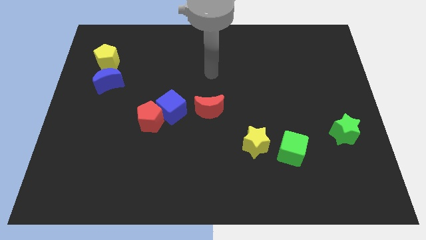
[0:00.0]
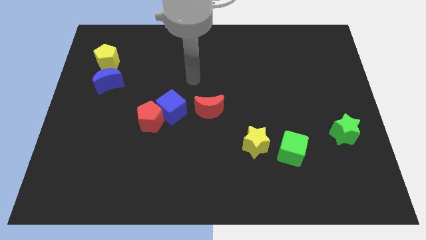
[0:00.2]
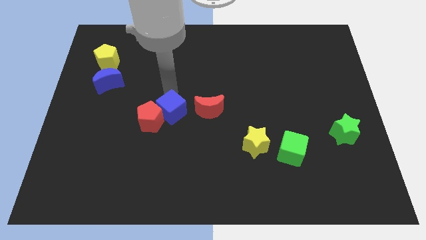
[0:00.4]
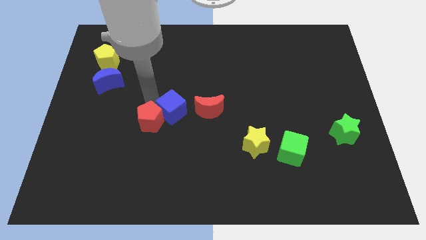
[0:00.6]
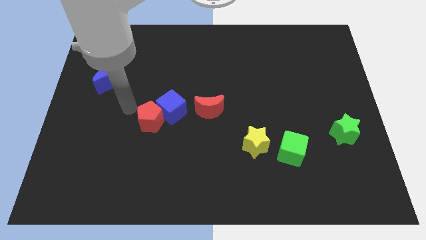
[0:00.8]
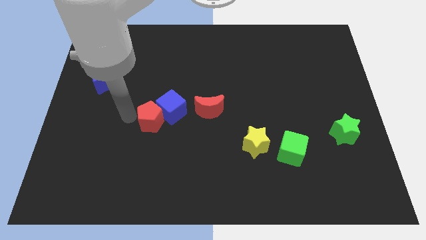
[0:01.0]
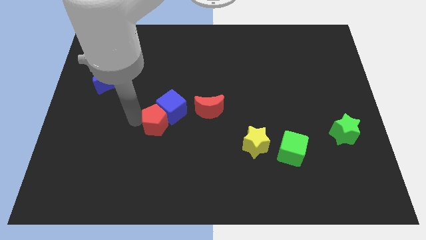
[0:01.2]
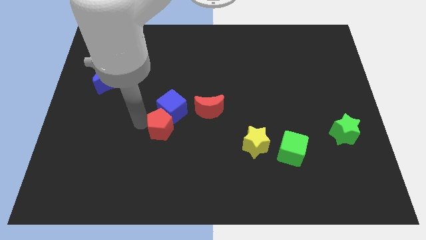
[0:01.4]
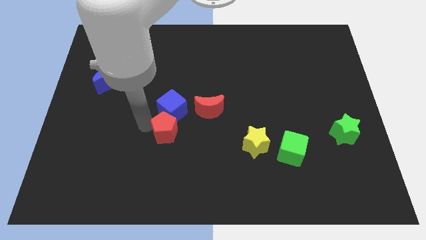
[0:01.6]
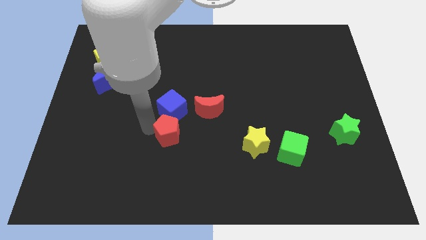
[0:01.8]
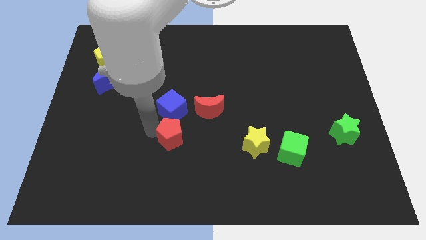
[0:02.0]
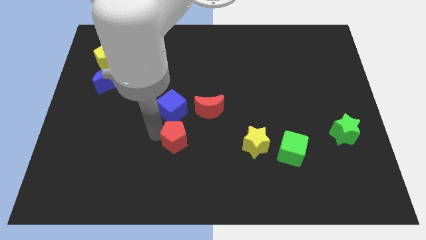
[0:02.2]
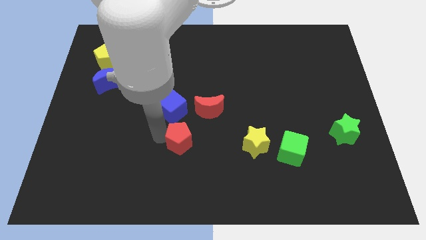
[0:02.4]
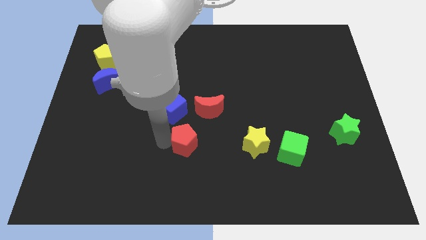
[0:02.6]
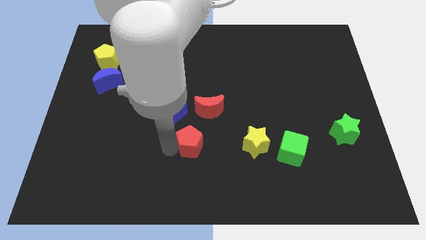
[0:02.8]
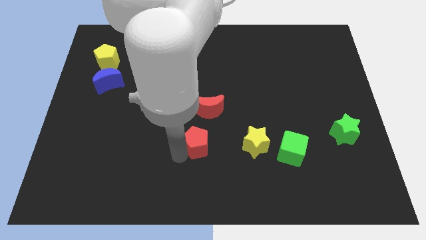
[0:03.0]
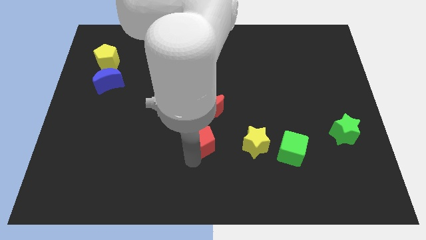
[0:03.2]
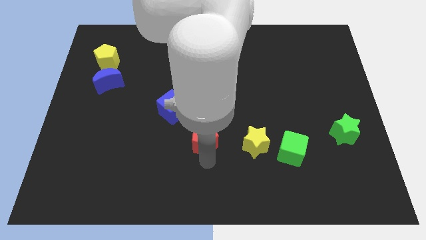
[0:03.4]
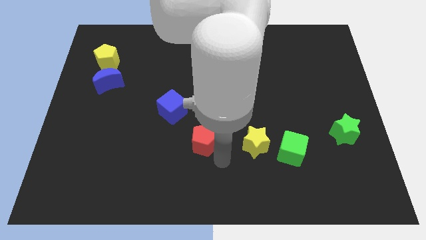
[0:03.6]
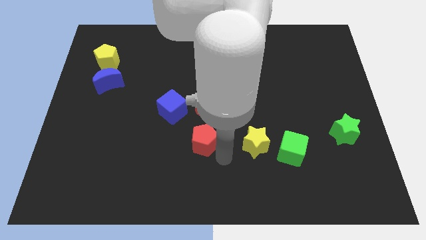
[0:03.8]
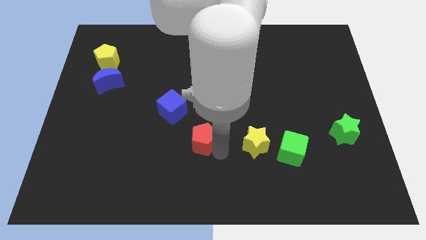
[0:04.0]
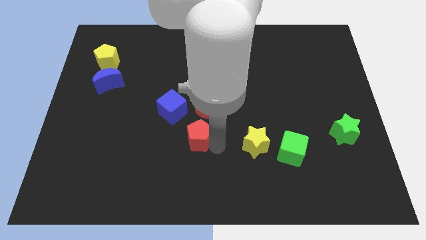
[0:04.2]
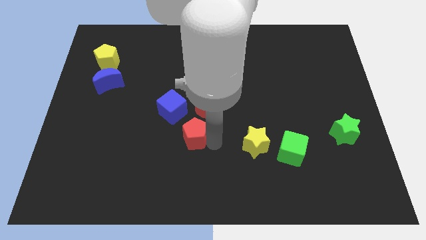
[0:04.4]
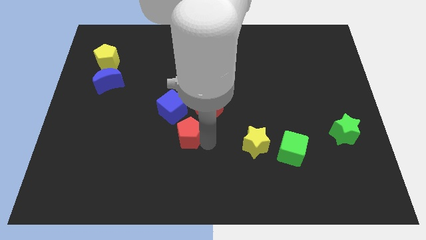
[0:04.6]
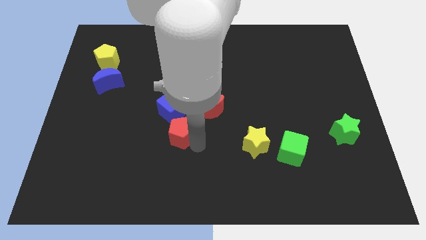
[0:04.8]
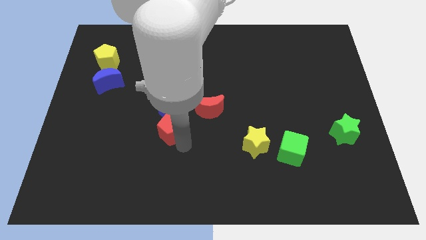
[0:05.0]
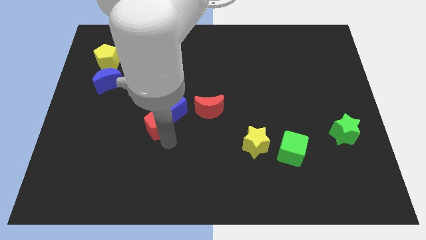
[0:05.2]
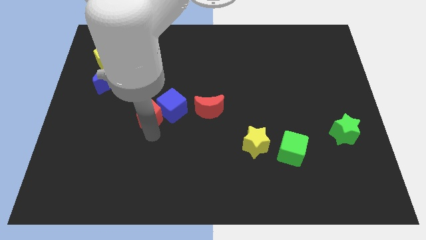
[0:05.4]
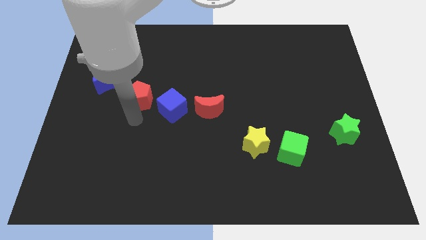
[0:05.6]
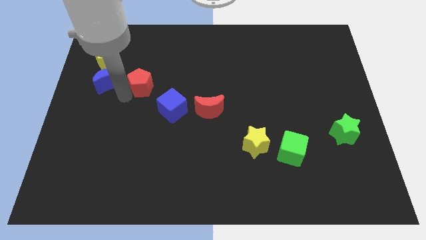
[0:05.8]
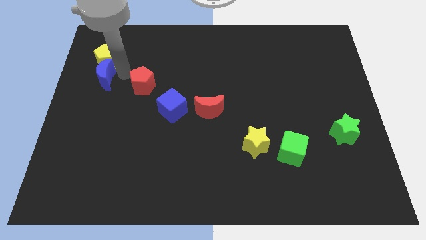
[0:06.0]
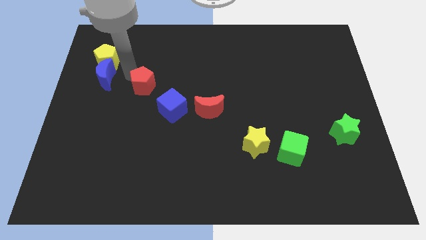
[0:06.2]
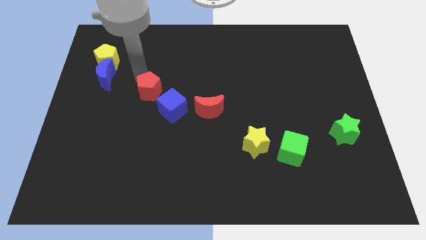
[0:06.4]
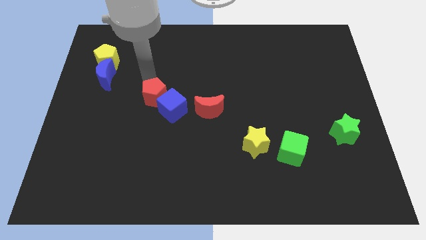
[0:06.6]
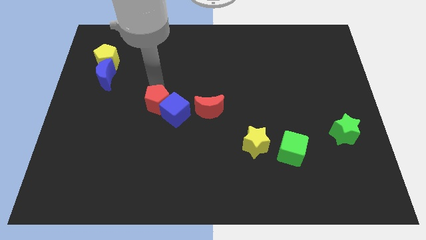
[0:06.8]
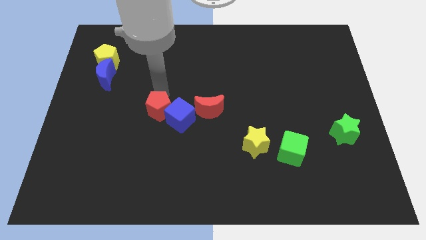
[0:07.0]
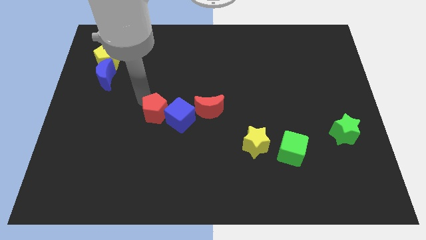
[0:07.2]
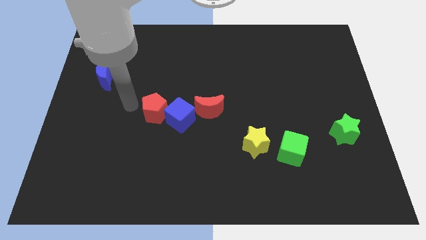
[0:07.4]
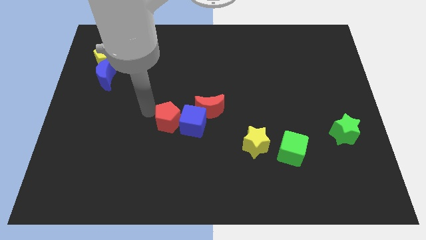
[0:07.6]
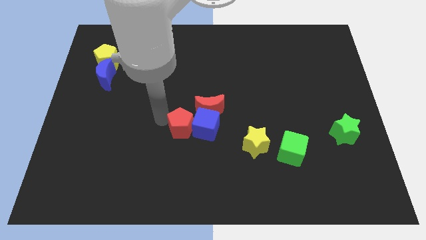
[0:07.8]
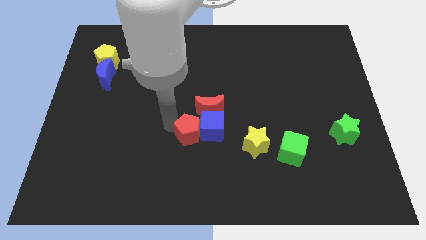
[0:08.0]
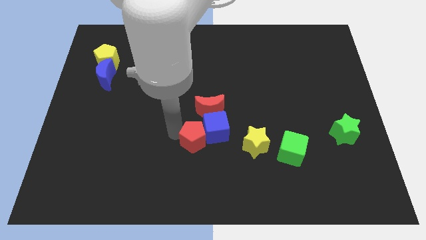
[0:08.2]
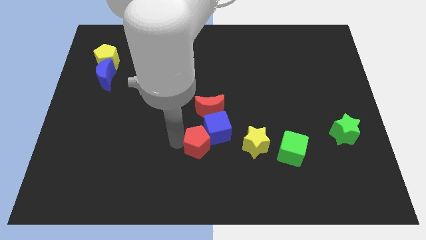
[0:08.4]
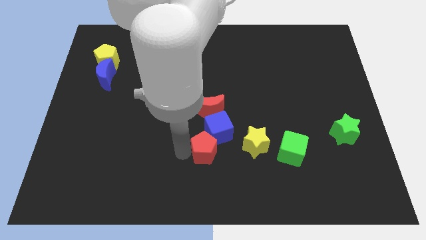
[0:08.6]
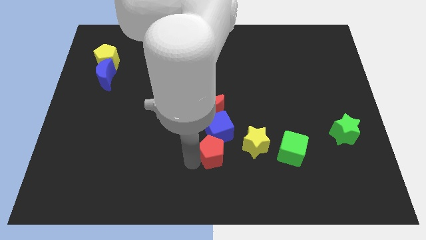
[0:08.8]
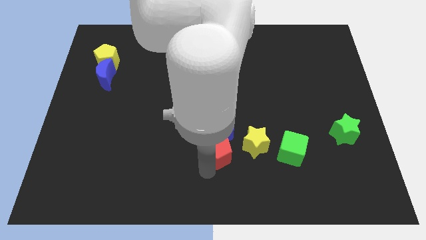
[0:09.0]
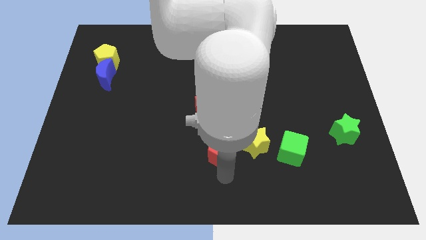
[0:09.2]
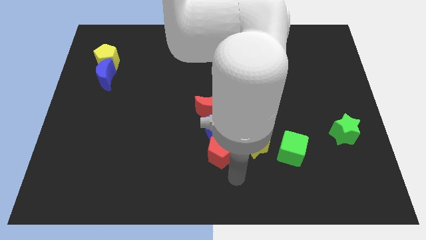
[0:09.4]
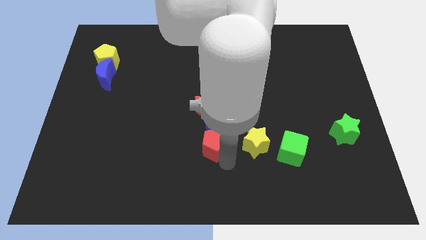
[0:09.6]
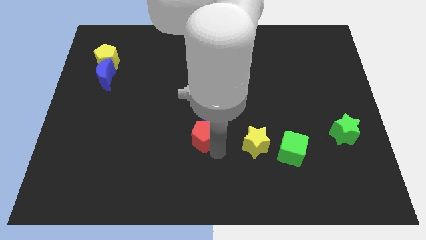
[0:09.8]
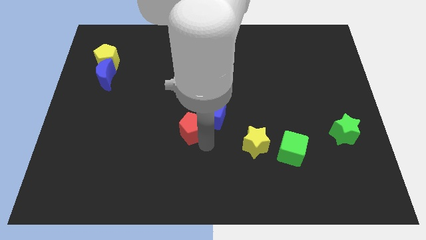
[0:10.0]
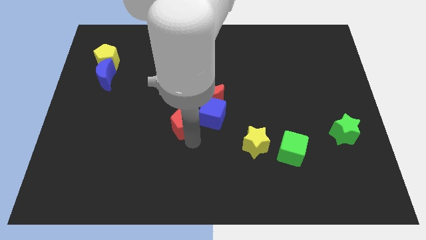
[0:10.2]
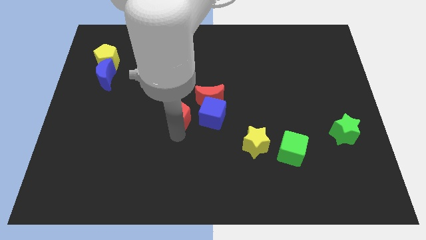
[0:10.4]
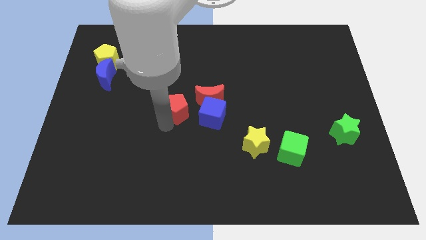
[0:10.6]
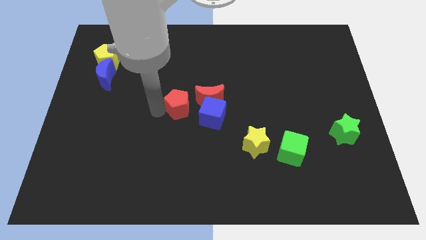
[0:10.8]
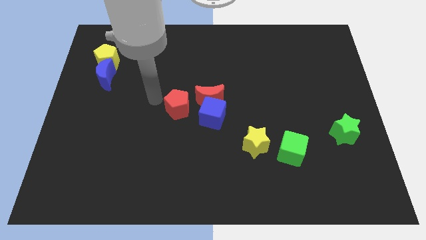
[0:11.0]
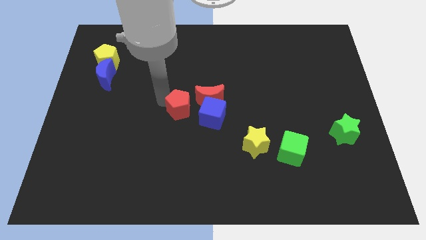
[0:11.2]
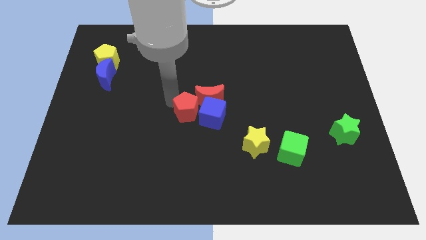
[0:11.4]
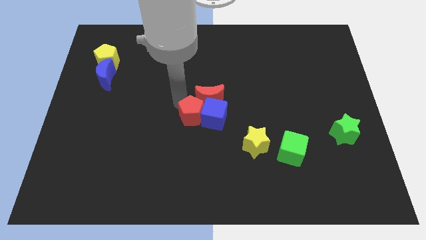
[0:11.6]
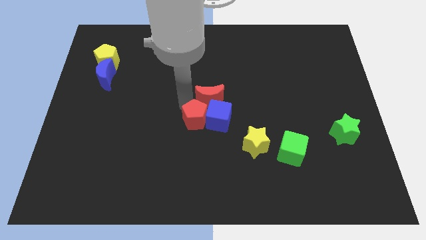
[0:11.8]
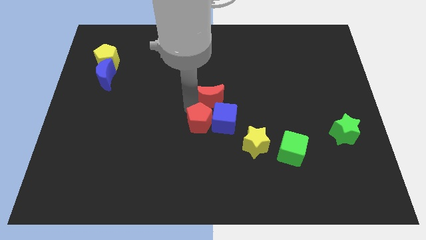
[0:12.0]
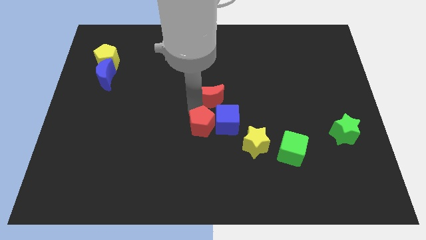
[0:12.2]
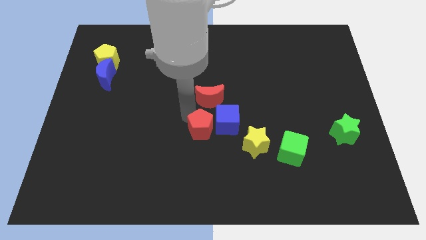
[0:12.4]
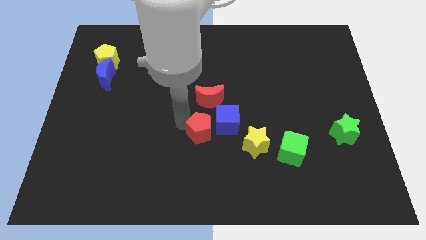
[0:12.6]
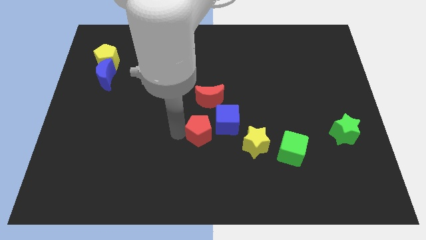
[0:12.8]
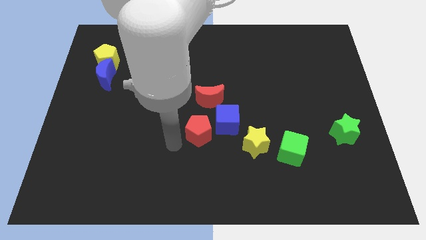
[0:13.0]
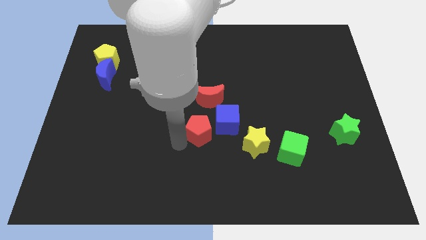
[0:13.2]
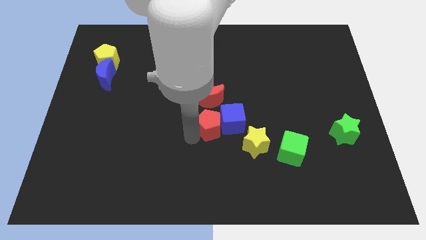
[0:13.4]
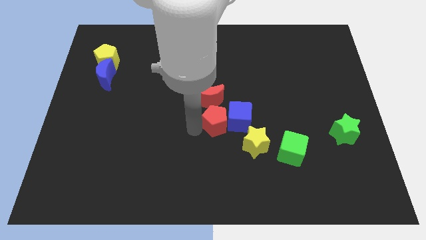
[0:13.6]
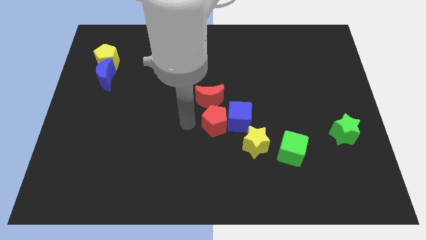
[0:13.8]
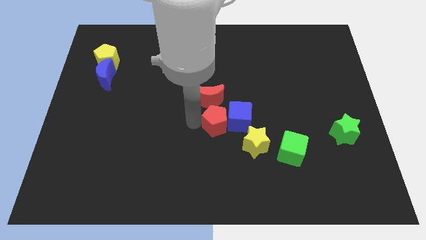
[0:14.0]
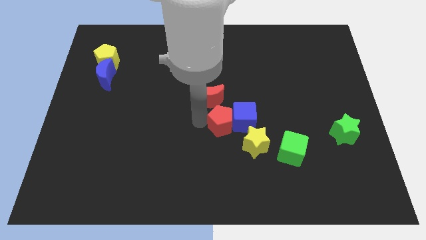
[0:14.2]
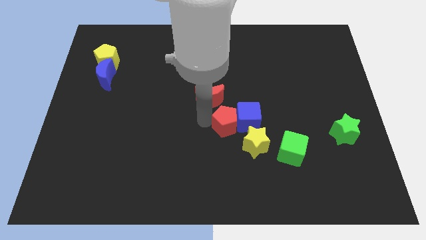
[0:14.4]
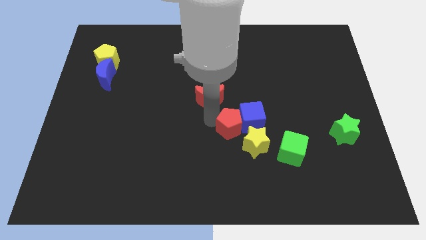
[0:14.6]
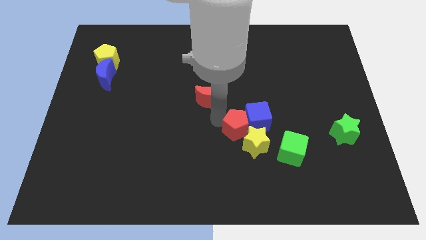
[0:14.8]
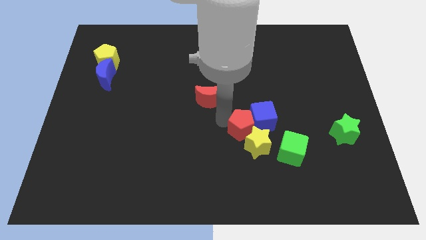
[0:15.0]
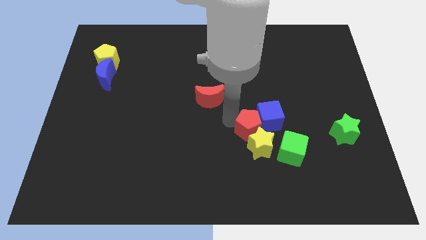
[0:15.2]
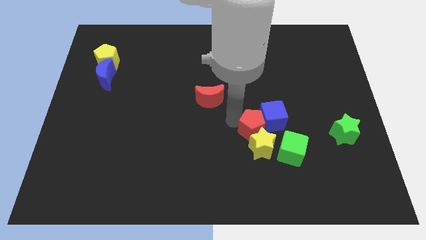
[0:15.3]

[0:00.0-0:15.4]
put the red pentagon to the top right side of the yellow star
